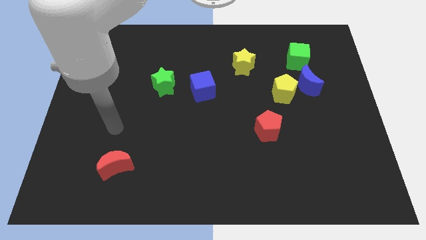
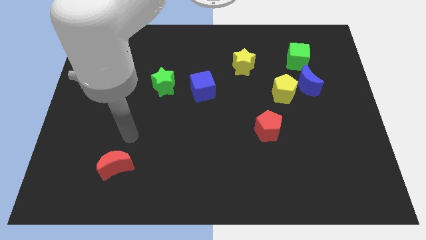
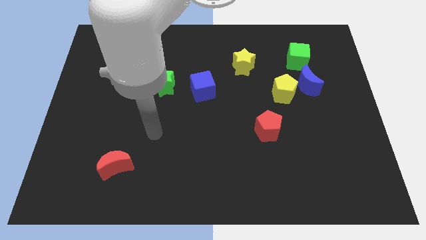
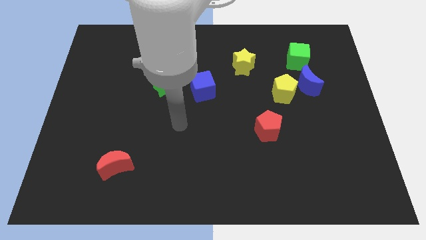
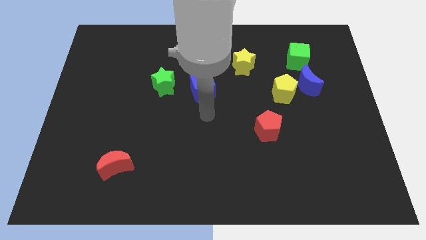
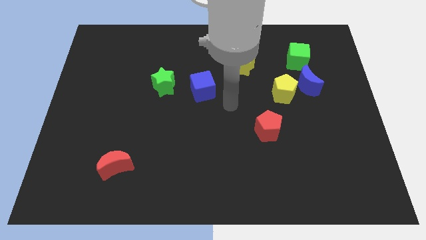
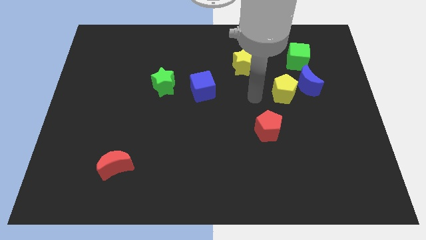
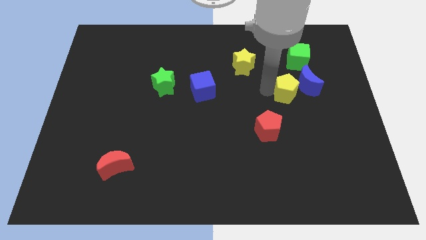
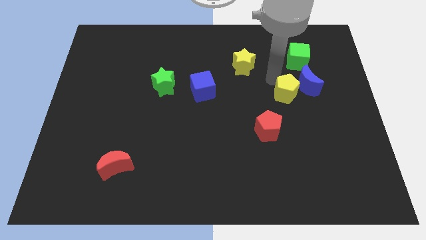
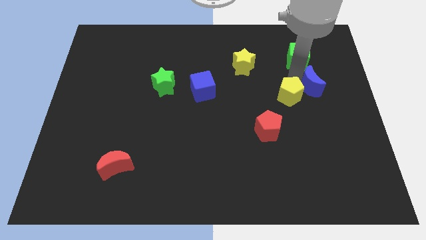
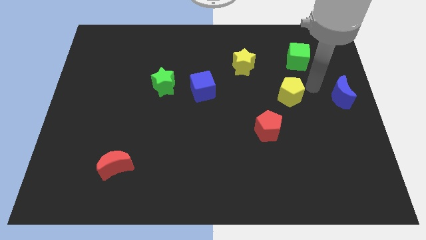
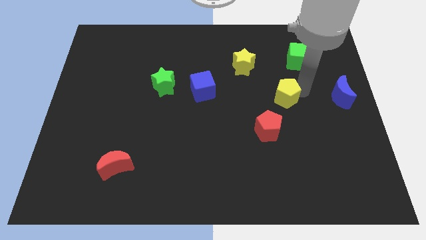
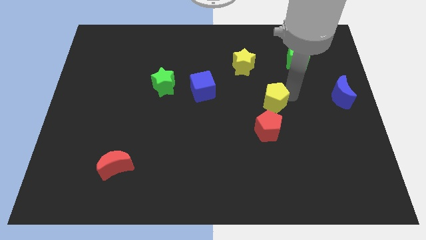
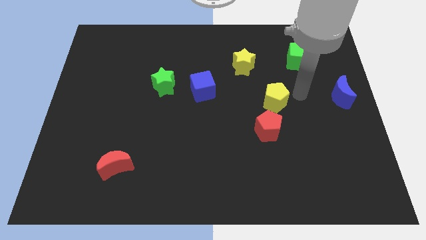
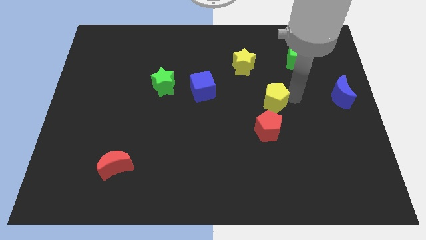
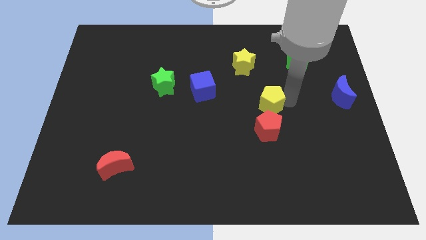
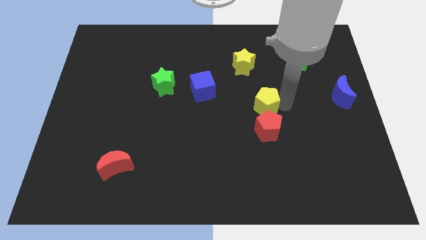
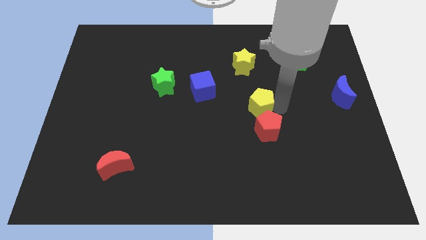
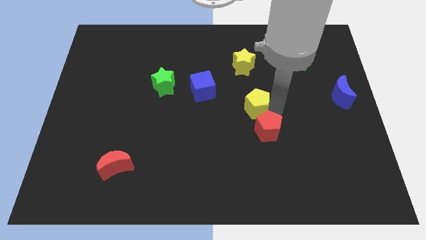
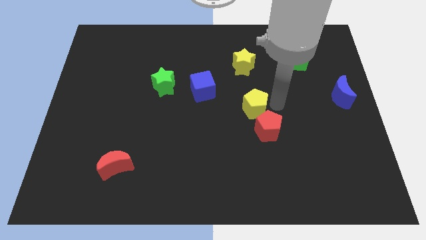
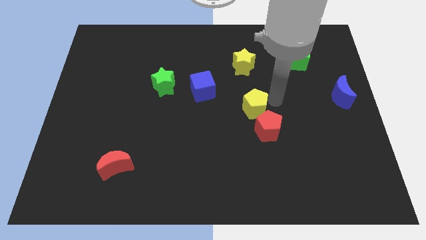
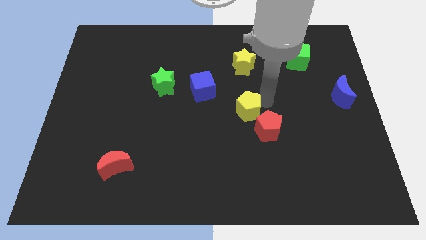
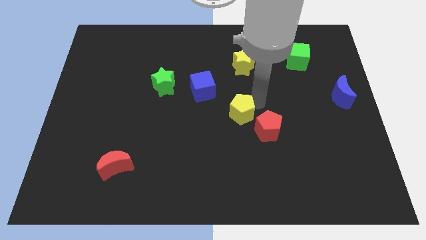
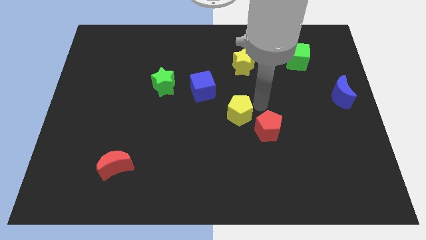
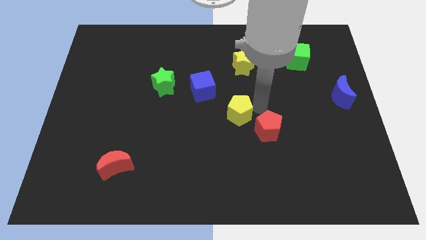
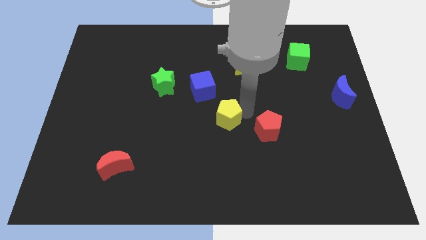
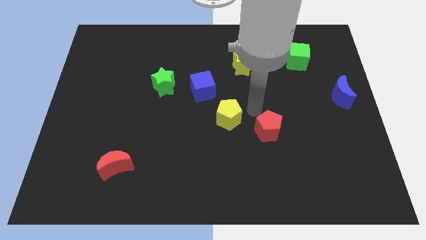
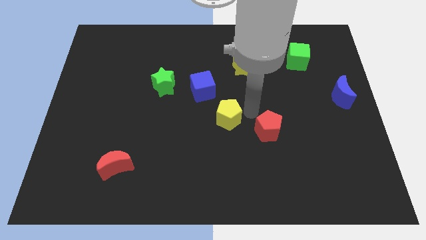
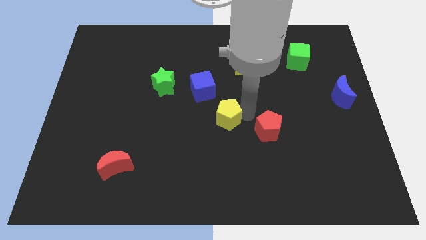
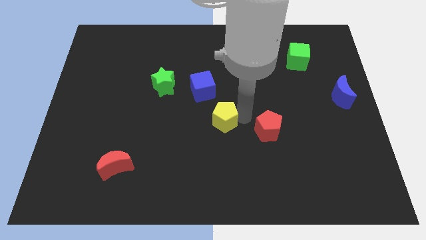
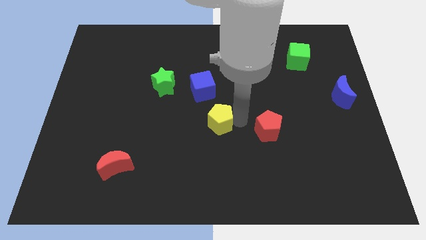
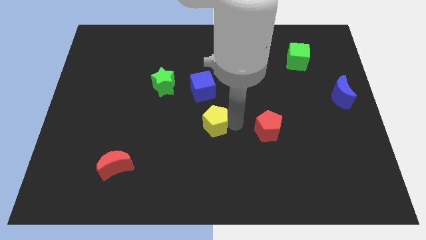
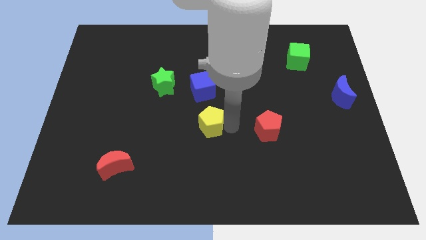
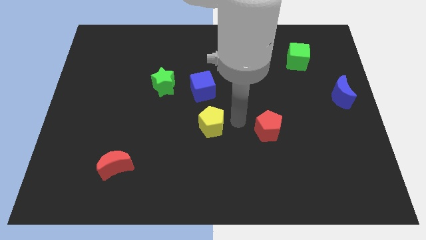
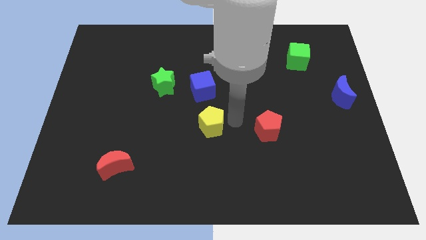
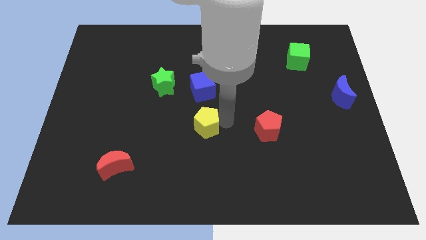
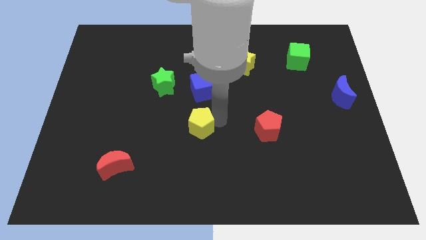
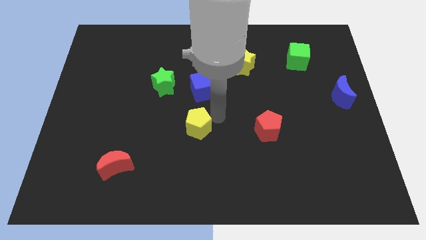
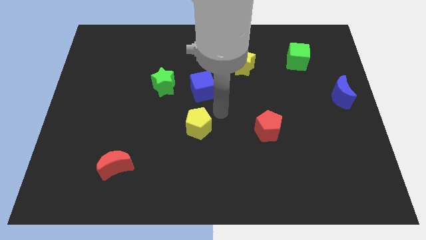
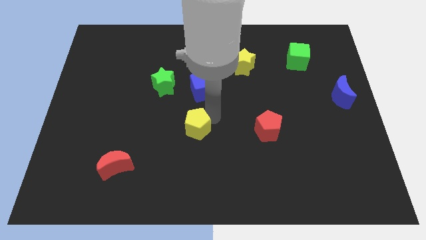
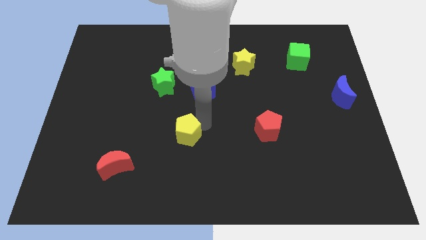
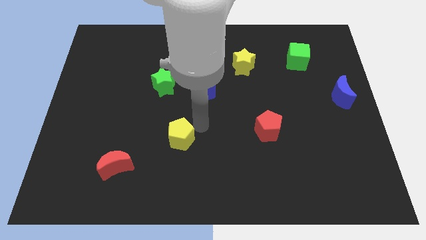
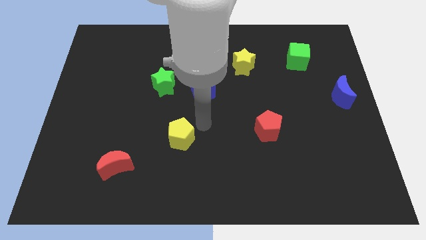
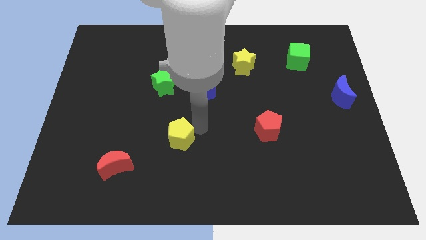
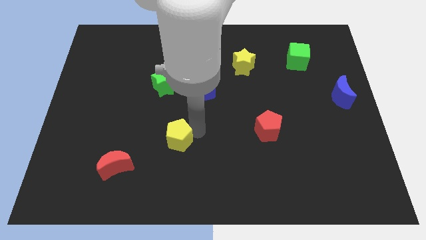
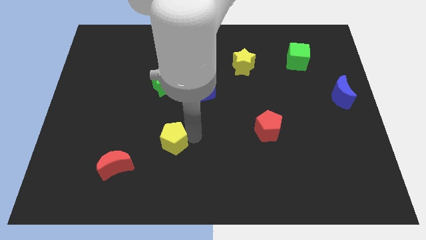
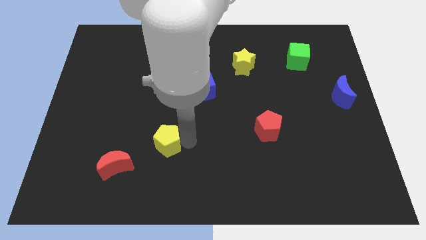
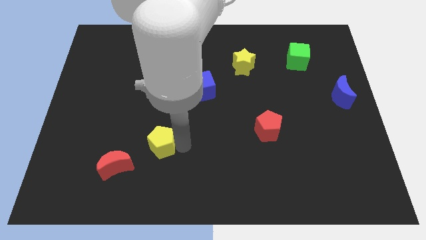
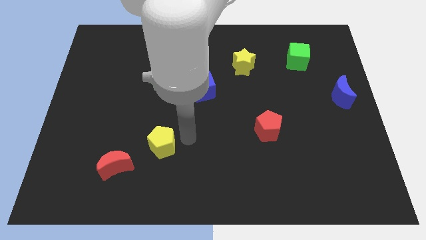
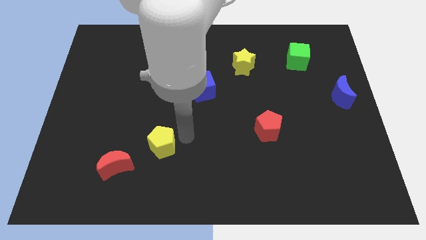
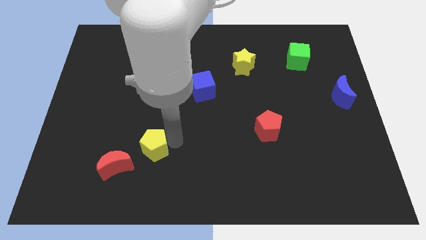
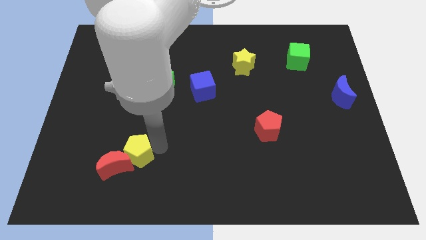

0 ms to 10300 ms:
slide the yellow pentagon to the red moon

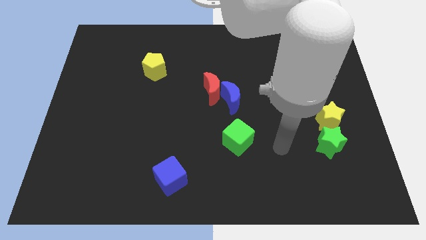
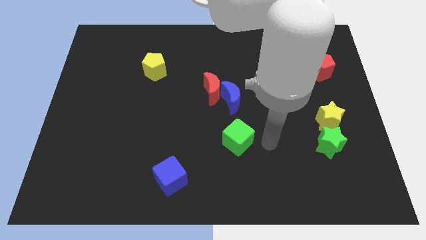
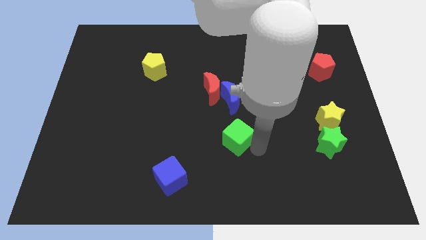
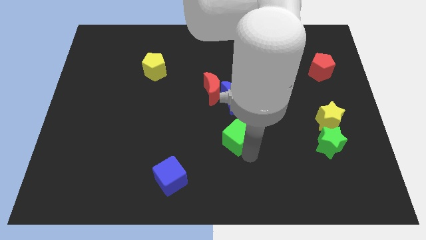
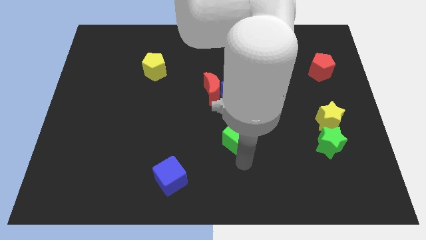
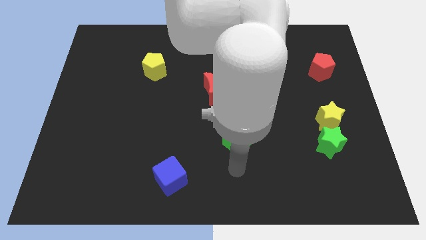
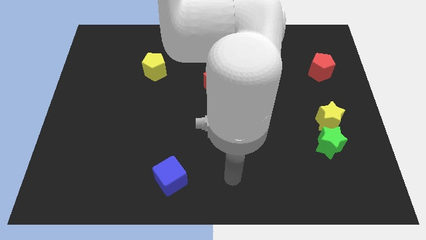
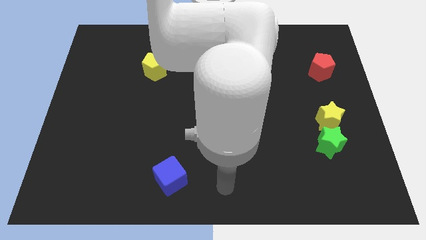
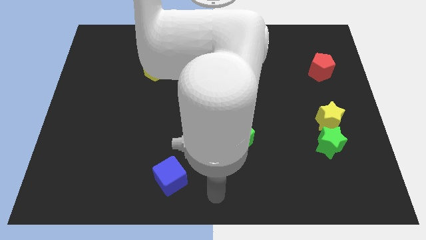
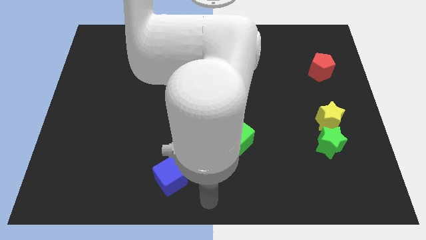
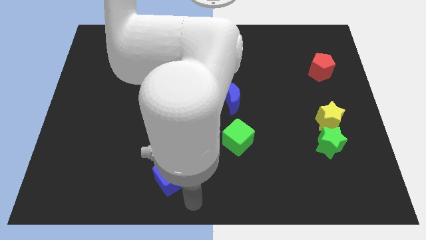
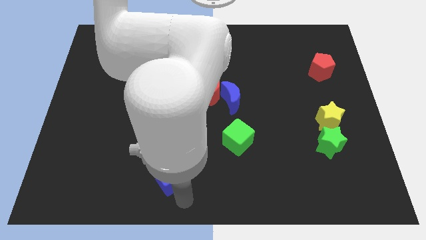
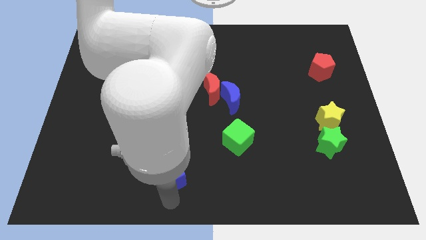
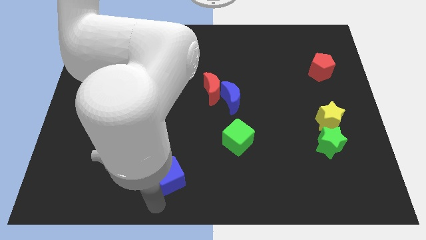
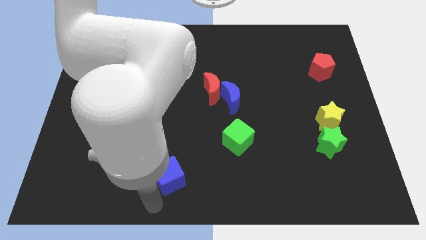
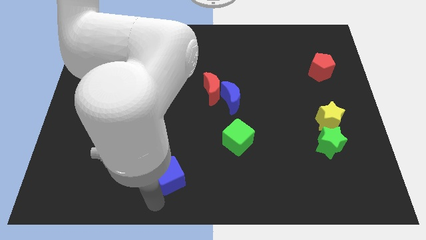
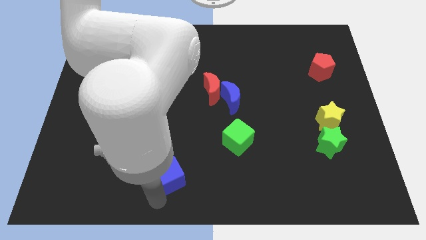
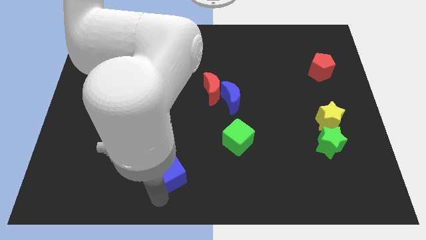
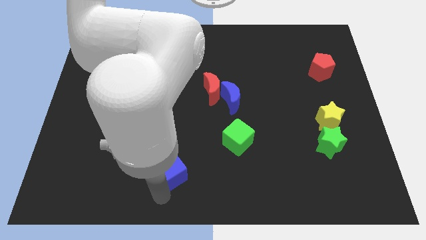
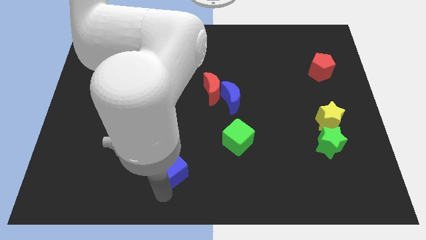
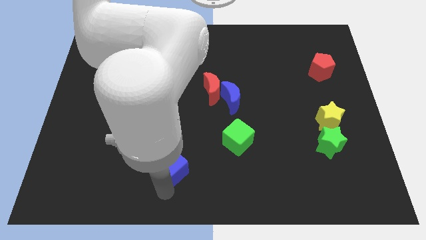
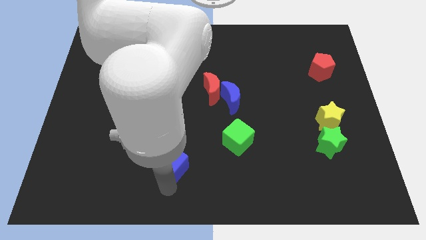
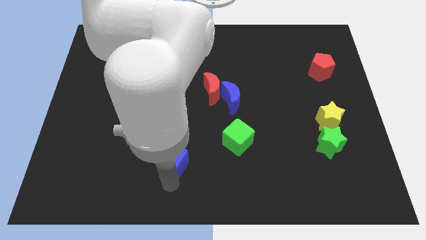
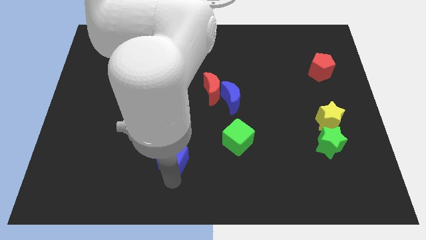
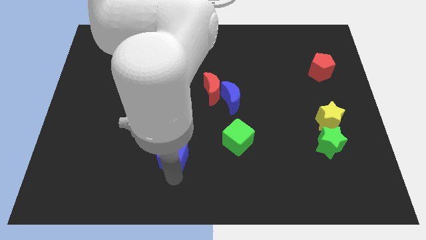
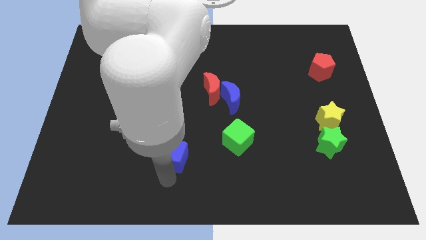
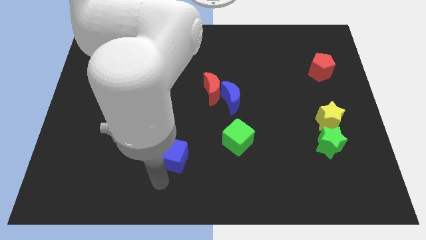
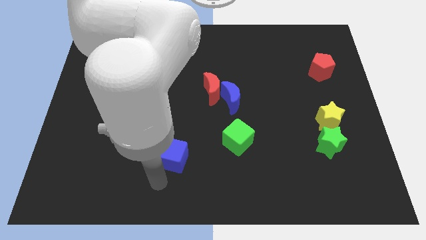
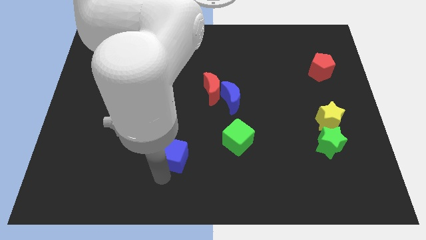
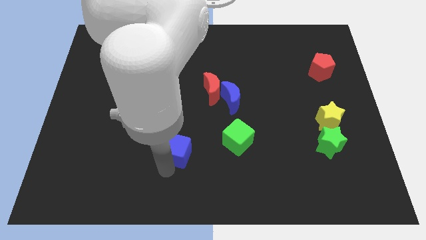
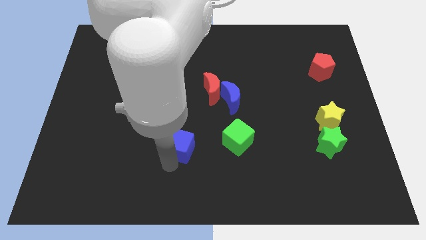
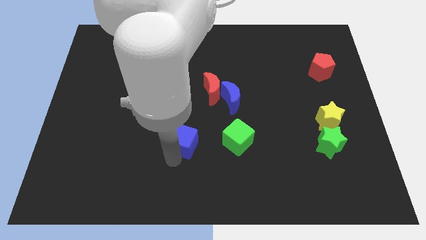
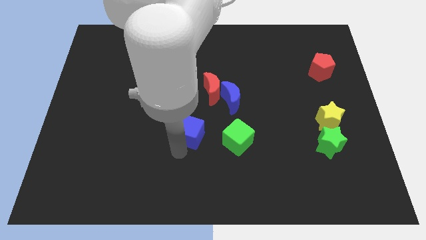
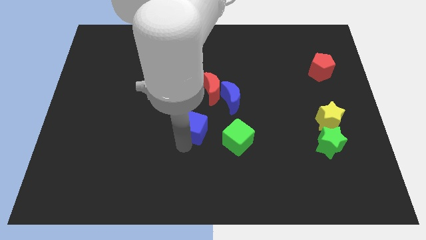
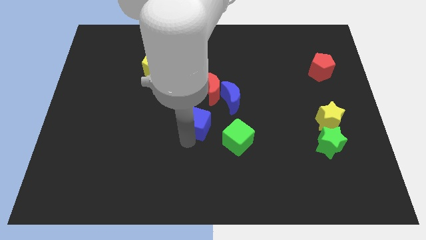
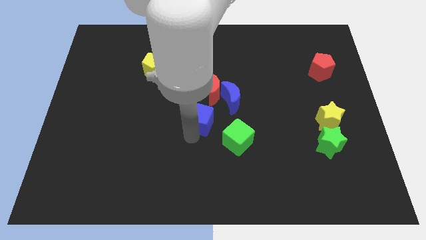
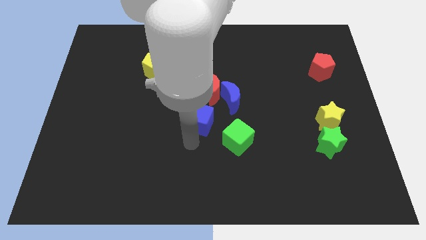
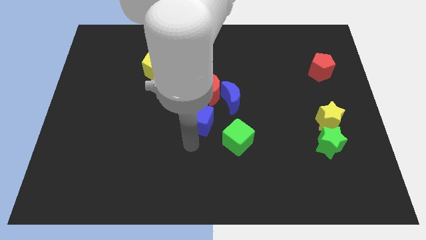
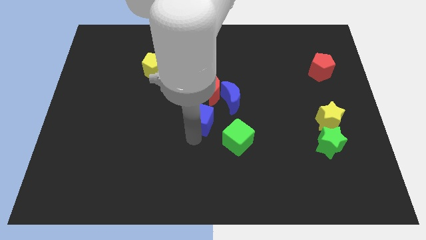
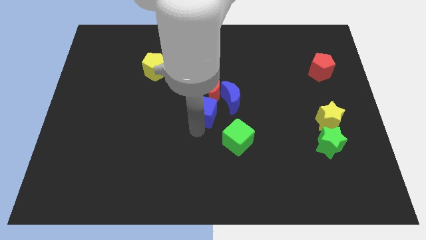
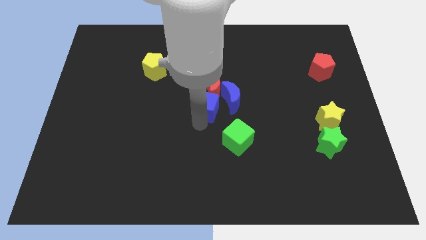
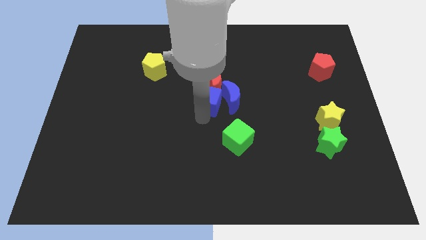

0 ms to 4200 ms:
push the blue cube next to the red moon
